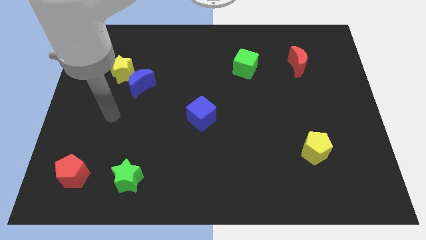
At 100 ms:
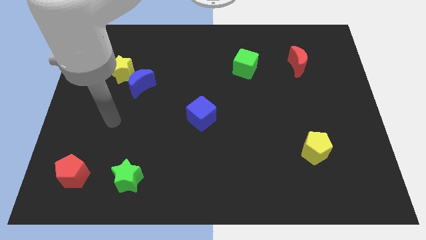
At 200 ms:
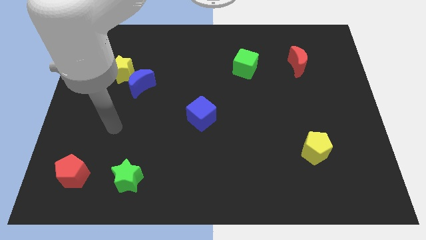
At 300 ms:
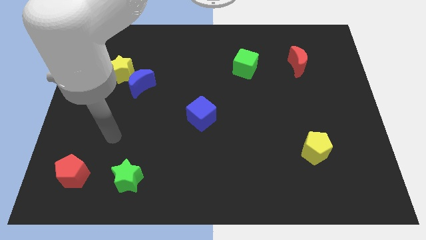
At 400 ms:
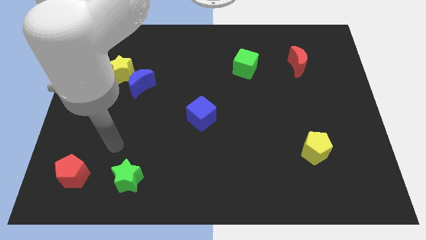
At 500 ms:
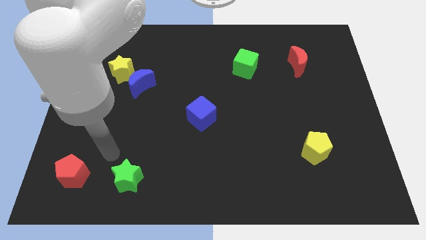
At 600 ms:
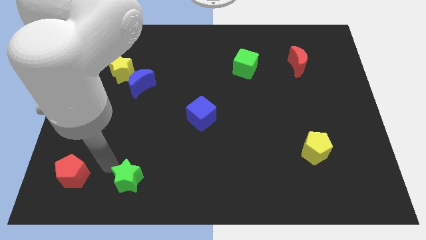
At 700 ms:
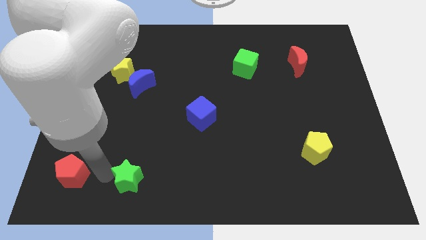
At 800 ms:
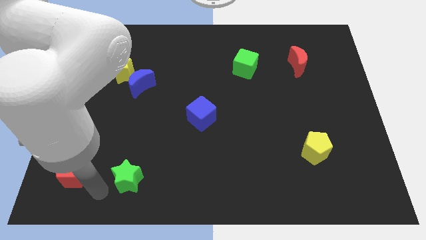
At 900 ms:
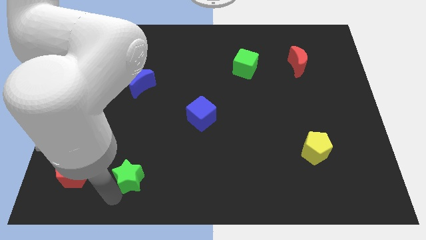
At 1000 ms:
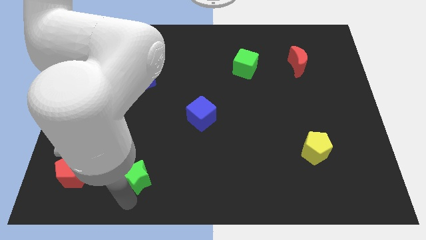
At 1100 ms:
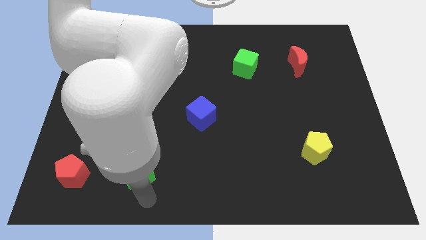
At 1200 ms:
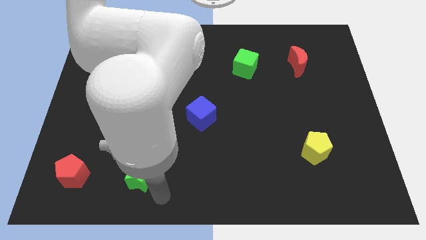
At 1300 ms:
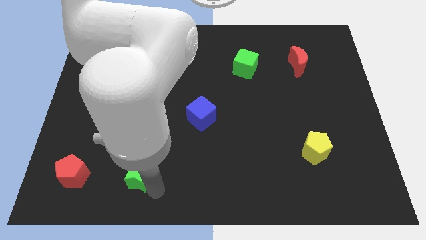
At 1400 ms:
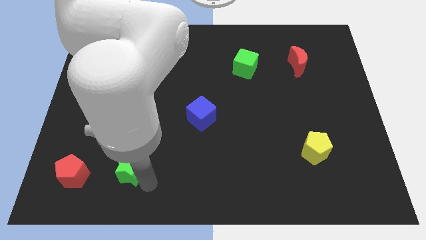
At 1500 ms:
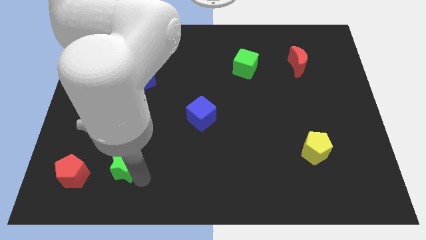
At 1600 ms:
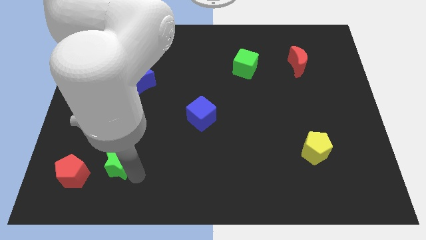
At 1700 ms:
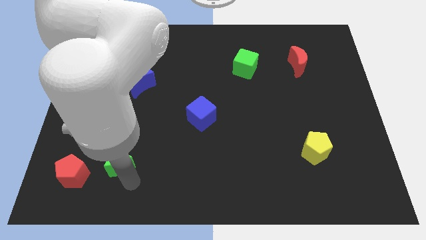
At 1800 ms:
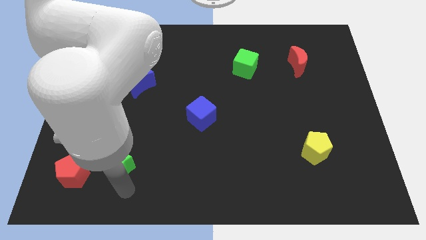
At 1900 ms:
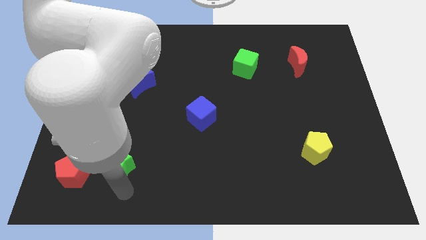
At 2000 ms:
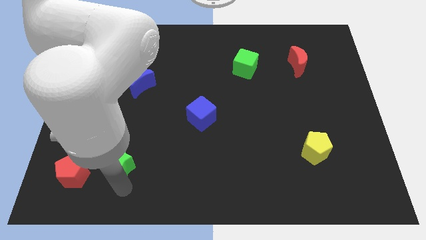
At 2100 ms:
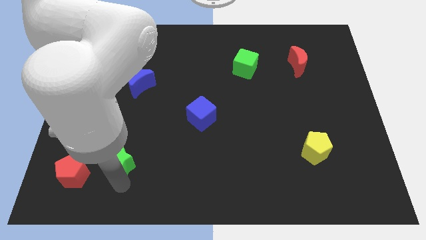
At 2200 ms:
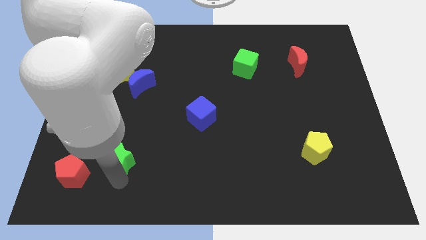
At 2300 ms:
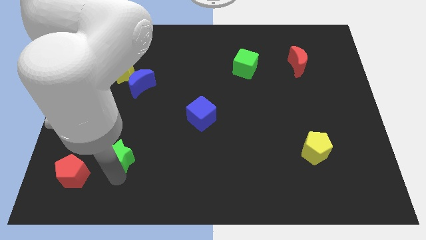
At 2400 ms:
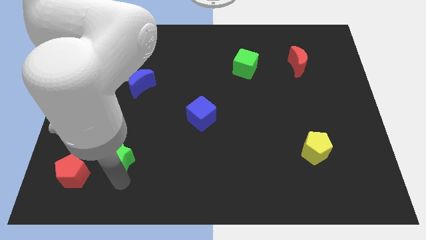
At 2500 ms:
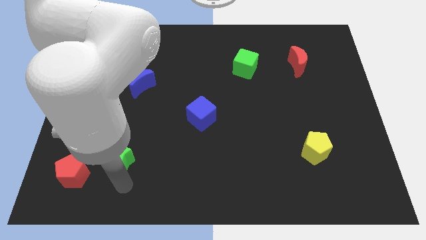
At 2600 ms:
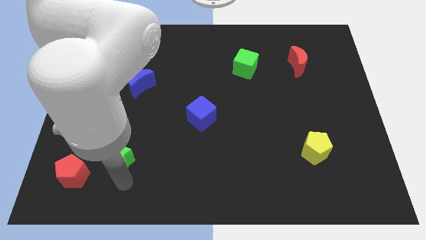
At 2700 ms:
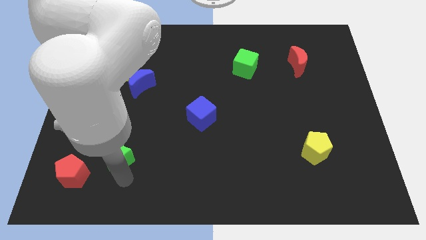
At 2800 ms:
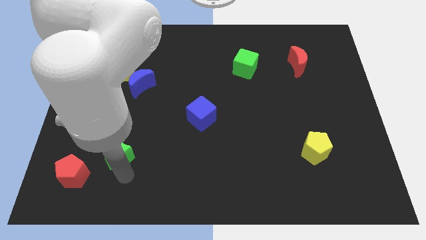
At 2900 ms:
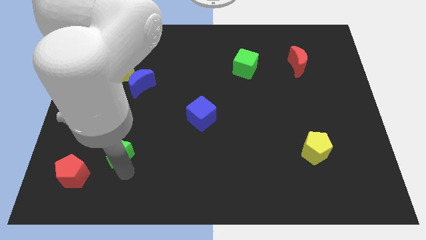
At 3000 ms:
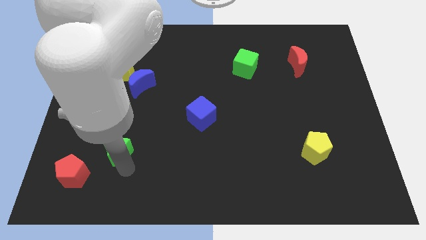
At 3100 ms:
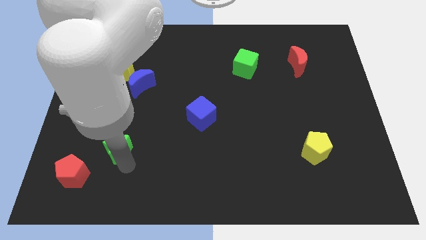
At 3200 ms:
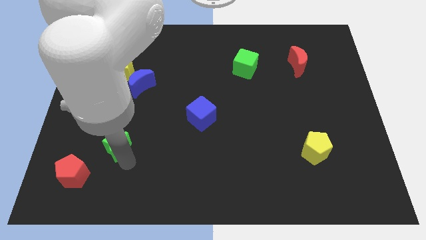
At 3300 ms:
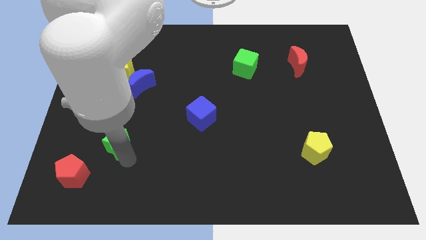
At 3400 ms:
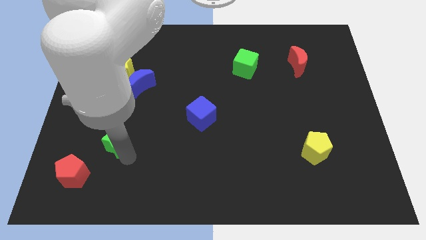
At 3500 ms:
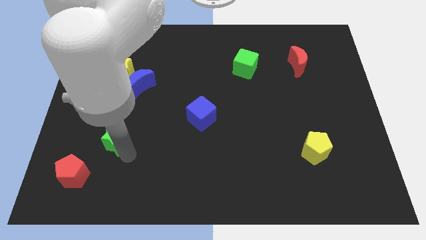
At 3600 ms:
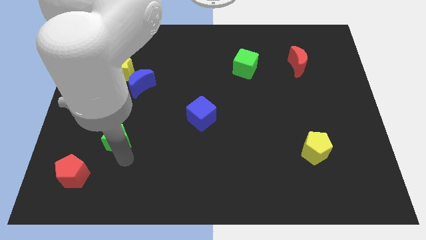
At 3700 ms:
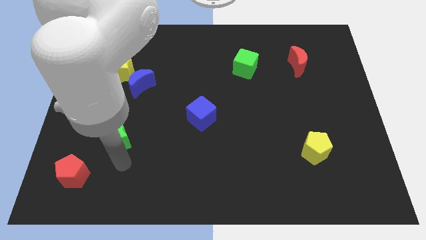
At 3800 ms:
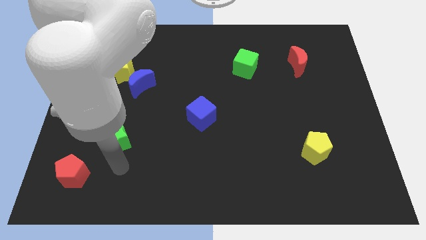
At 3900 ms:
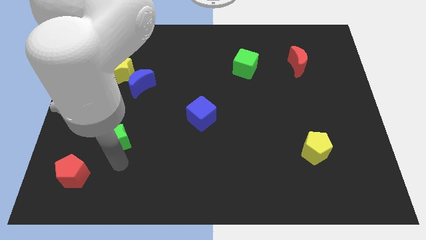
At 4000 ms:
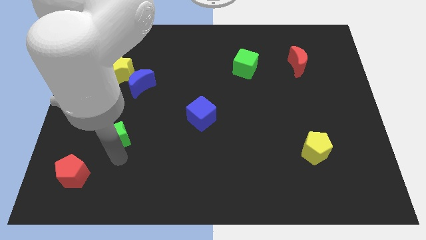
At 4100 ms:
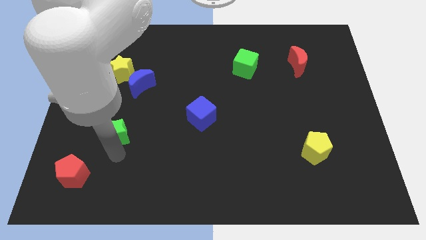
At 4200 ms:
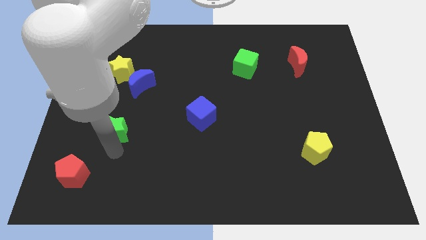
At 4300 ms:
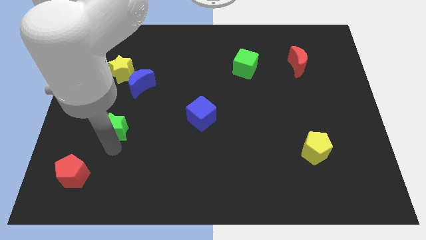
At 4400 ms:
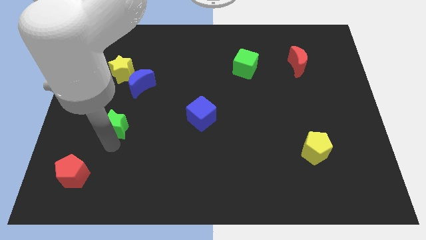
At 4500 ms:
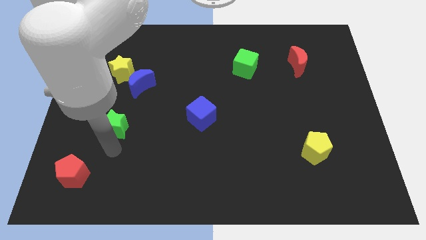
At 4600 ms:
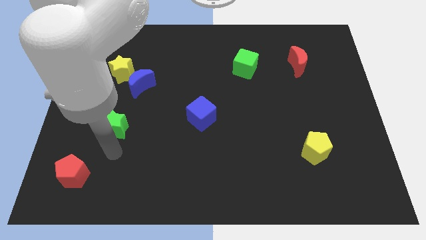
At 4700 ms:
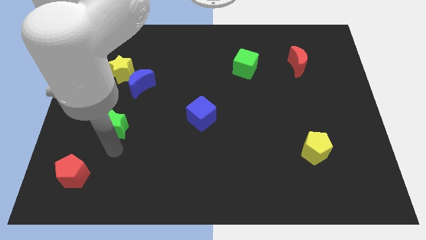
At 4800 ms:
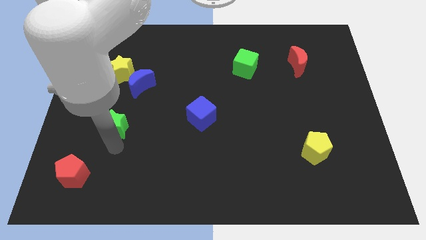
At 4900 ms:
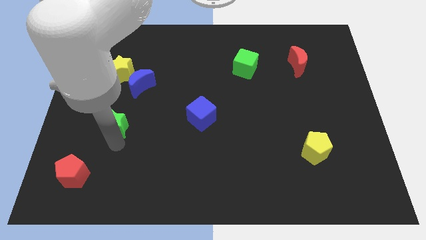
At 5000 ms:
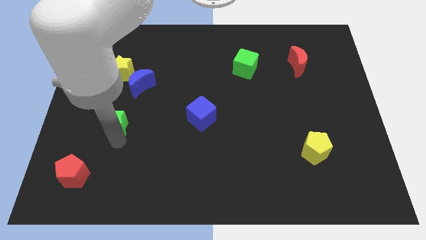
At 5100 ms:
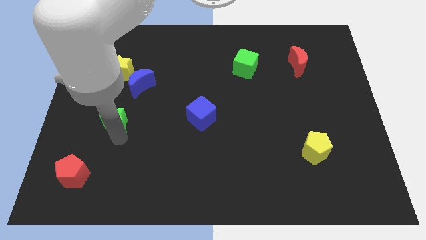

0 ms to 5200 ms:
put the green star to the bottom side of the yellow star

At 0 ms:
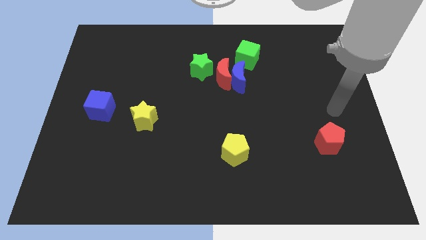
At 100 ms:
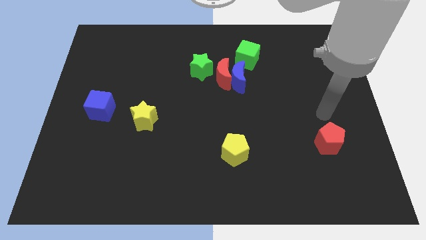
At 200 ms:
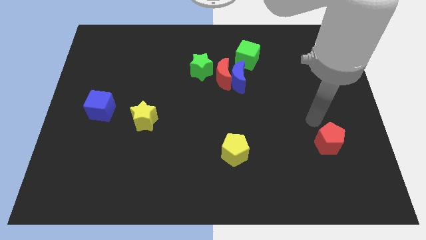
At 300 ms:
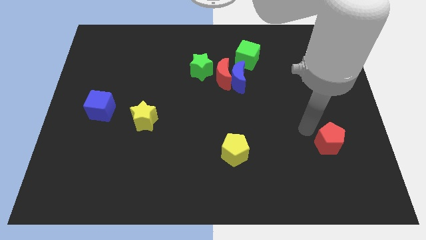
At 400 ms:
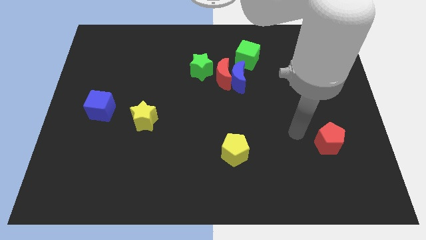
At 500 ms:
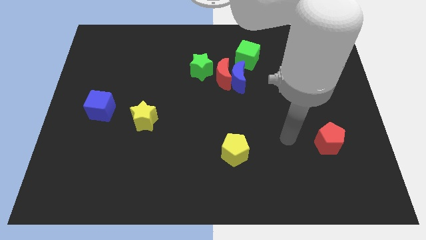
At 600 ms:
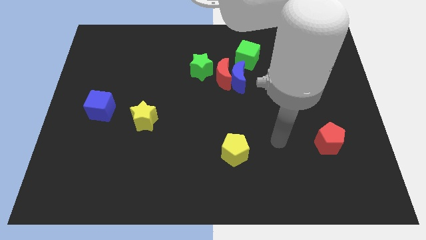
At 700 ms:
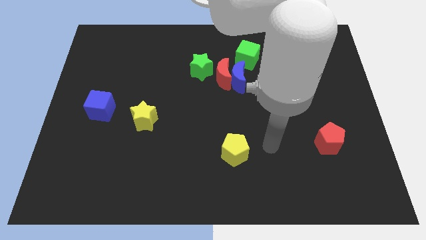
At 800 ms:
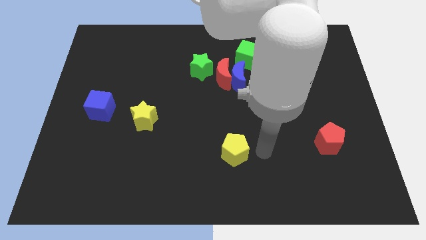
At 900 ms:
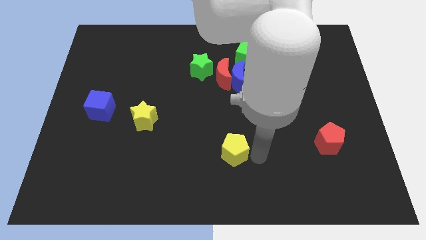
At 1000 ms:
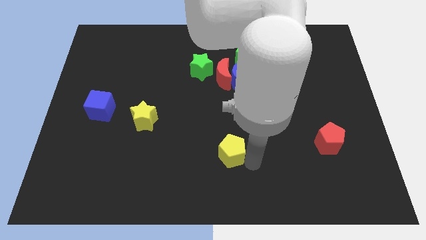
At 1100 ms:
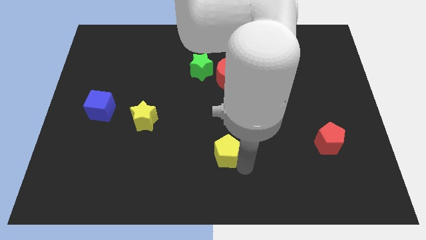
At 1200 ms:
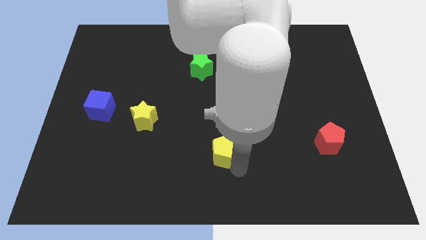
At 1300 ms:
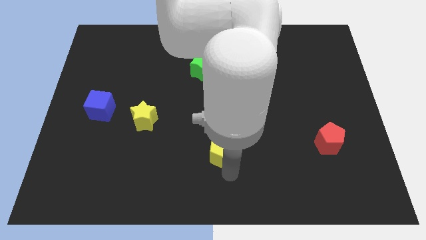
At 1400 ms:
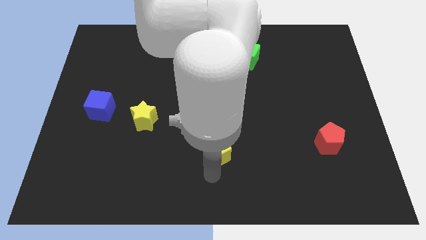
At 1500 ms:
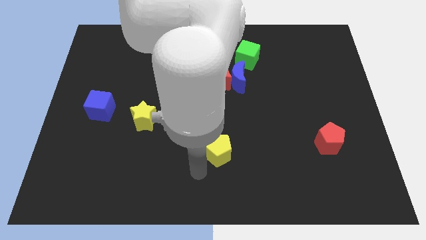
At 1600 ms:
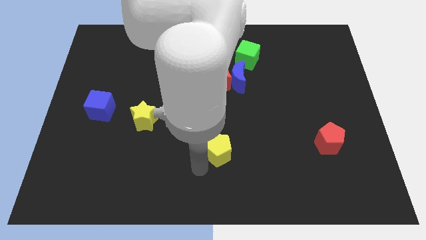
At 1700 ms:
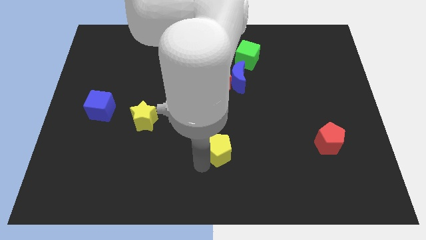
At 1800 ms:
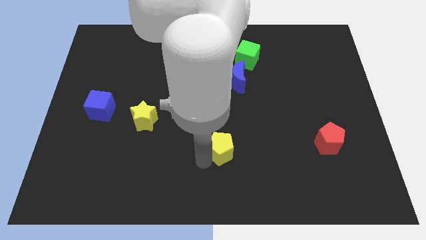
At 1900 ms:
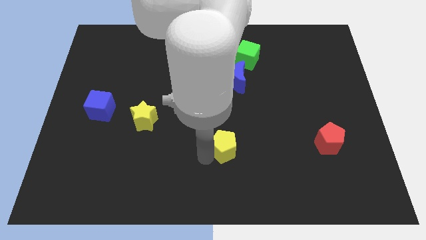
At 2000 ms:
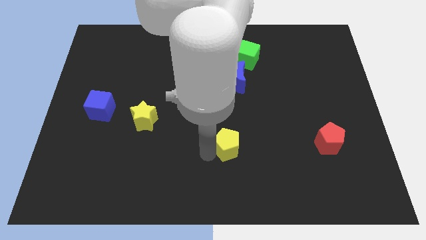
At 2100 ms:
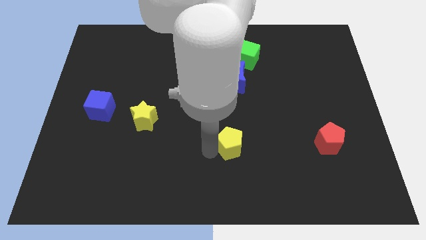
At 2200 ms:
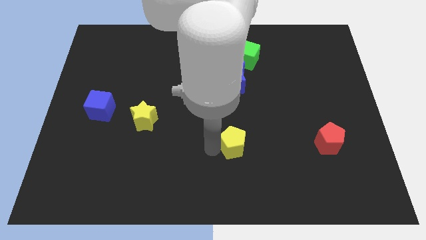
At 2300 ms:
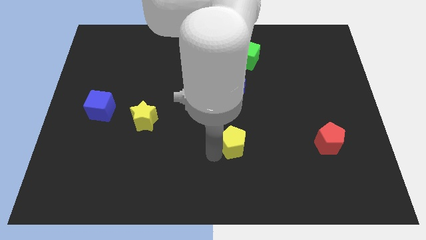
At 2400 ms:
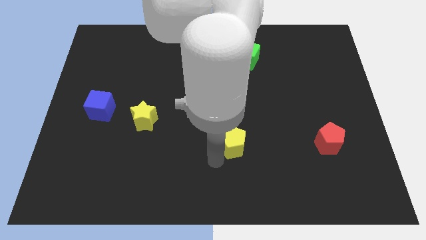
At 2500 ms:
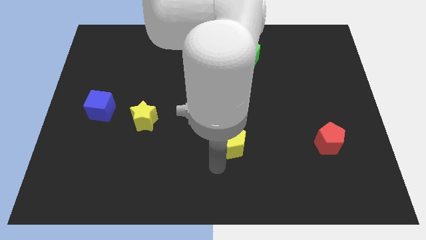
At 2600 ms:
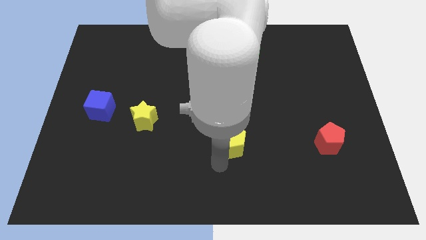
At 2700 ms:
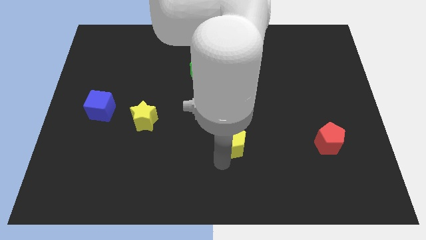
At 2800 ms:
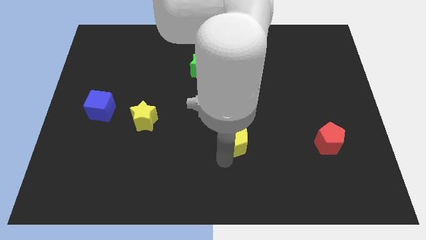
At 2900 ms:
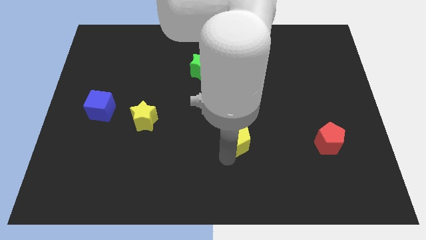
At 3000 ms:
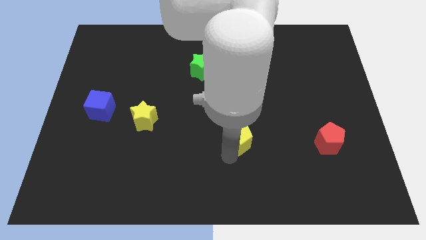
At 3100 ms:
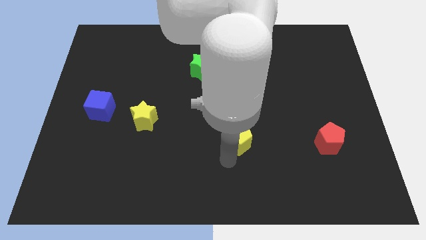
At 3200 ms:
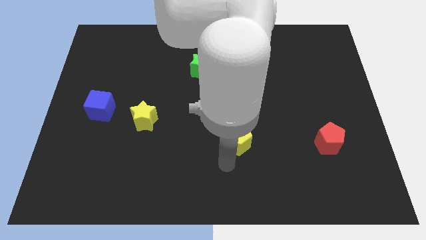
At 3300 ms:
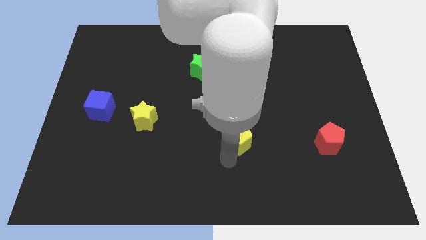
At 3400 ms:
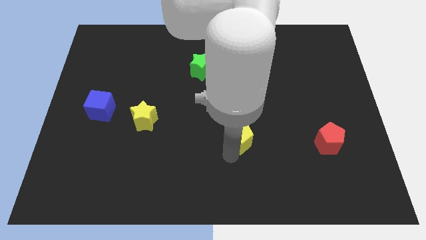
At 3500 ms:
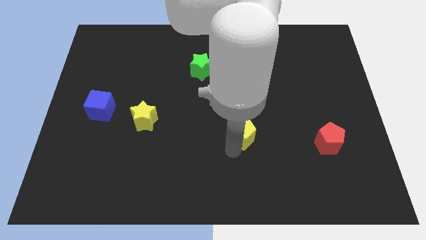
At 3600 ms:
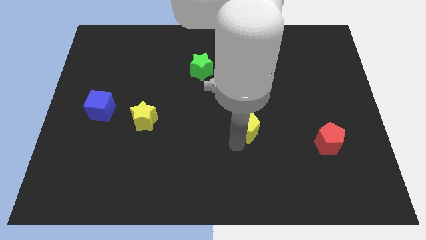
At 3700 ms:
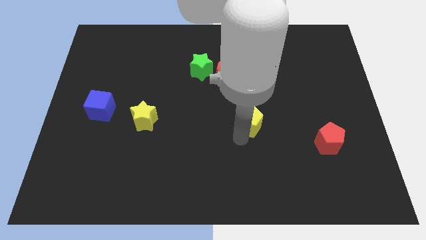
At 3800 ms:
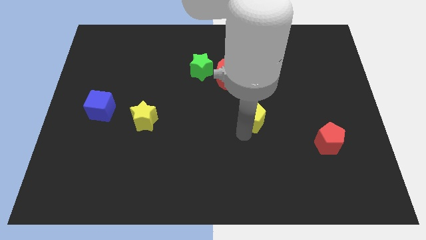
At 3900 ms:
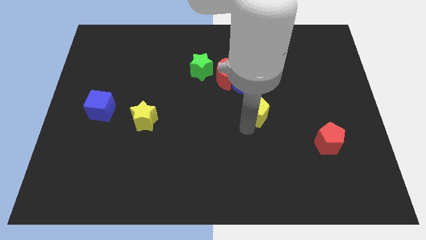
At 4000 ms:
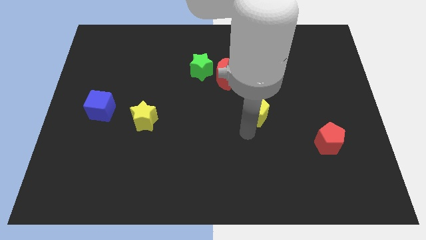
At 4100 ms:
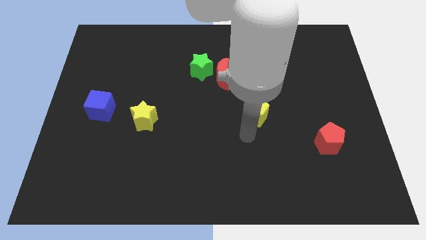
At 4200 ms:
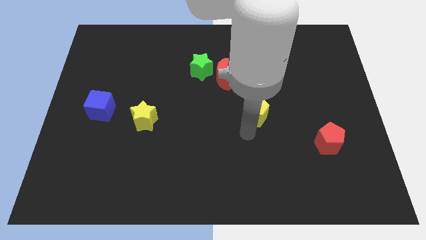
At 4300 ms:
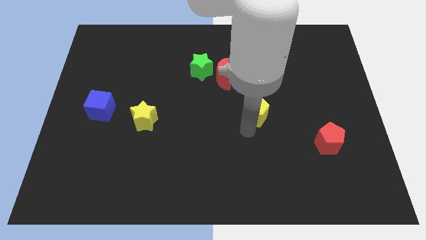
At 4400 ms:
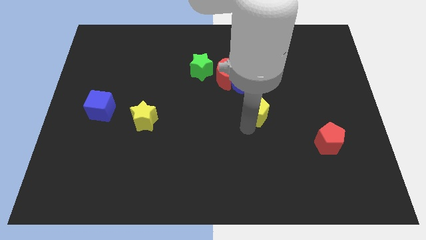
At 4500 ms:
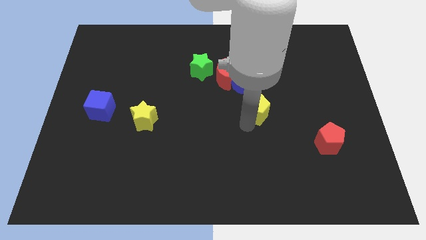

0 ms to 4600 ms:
slide the yellow pentagon to the bottom right side of the blue moon
